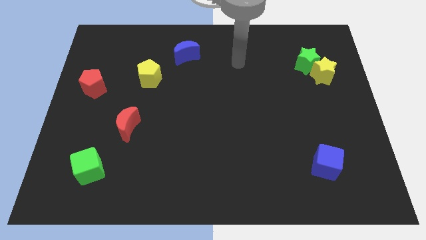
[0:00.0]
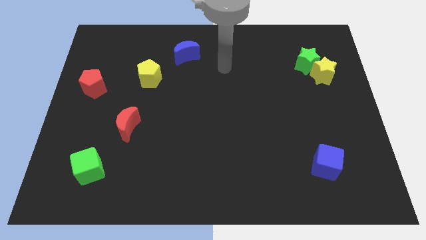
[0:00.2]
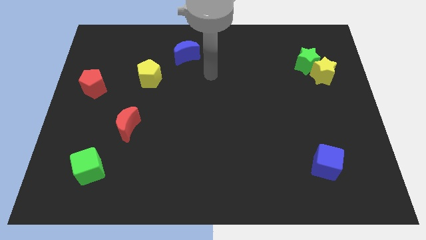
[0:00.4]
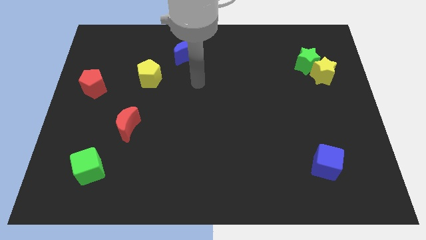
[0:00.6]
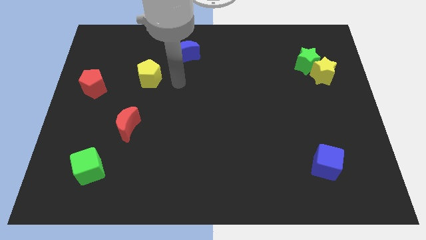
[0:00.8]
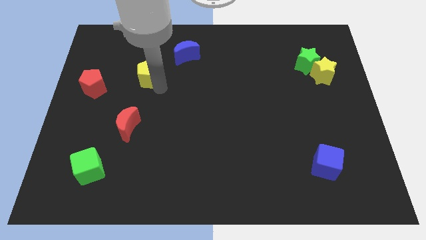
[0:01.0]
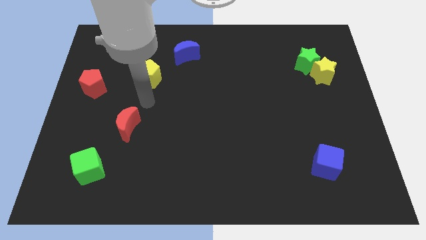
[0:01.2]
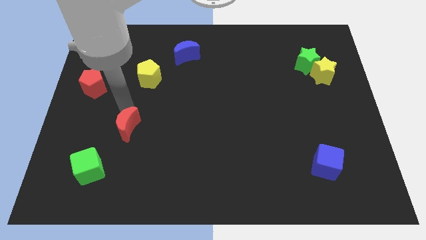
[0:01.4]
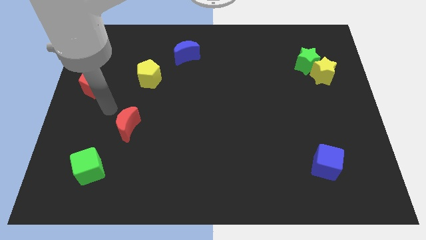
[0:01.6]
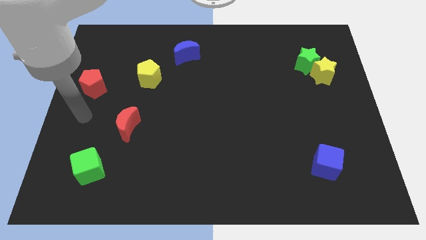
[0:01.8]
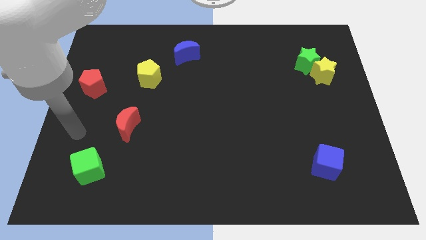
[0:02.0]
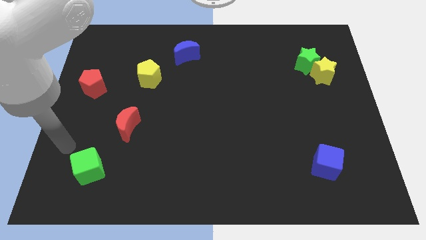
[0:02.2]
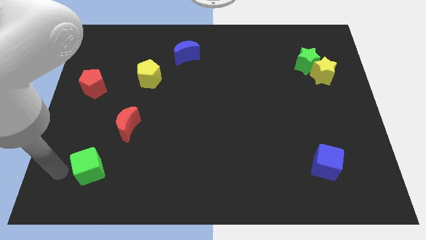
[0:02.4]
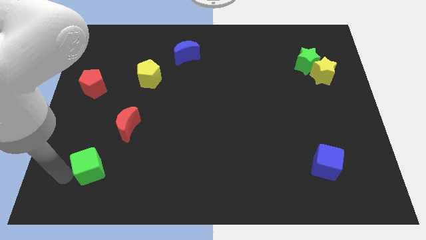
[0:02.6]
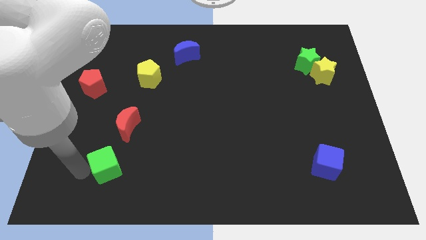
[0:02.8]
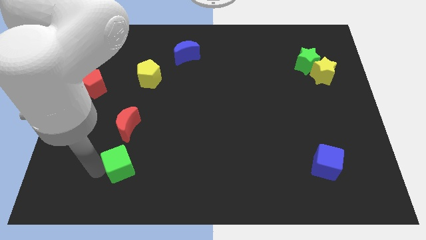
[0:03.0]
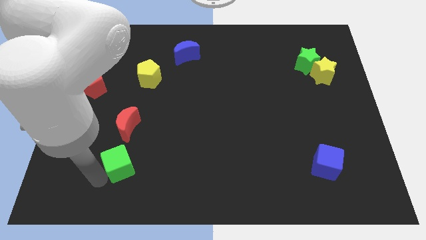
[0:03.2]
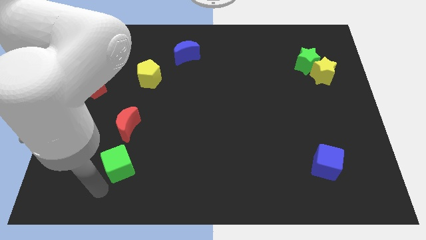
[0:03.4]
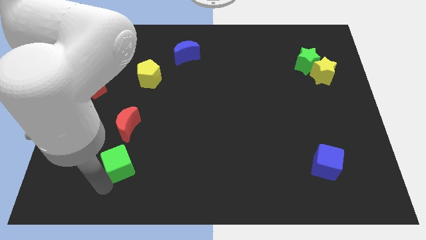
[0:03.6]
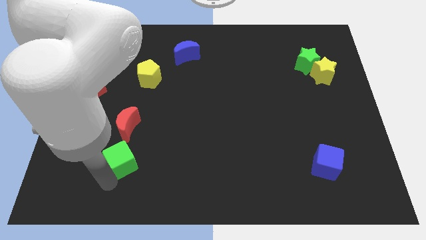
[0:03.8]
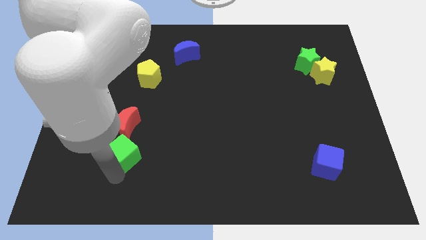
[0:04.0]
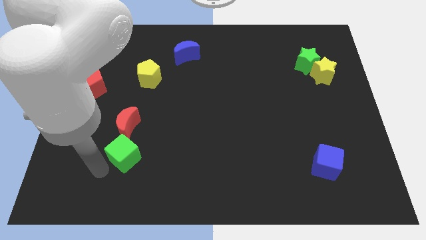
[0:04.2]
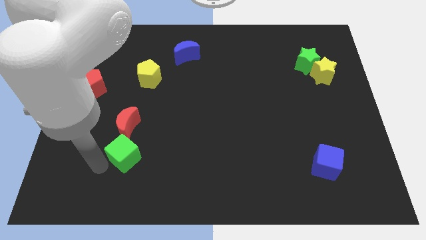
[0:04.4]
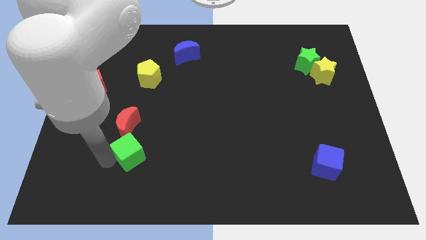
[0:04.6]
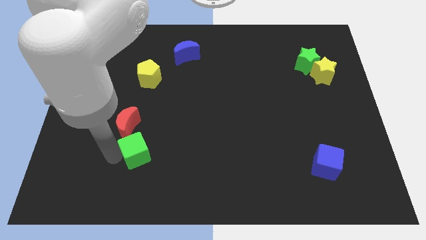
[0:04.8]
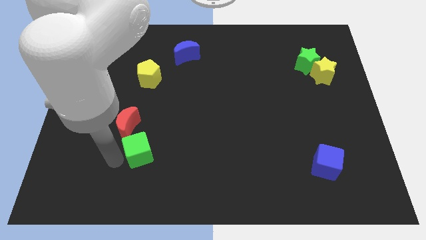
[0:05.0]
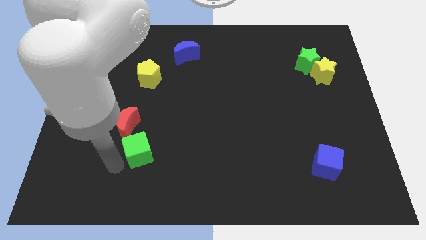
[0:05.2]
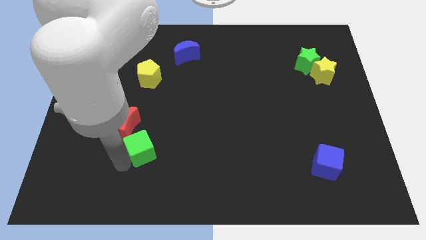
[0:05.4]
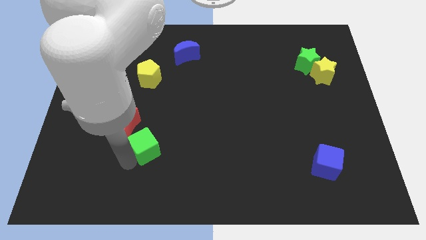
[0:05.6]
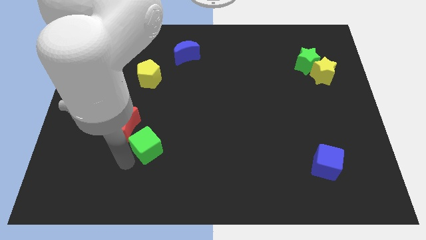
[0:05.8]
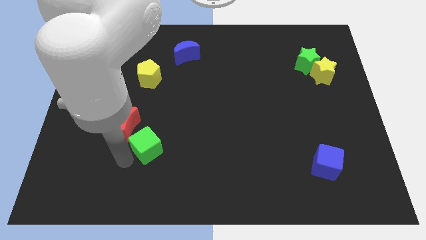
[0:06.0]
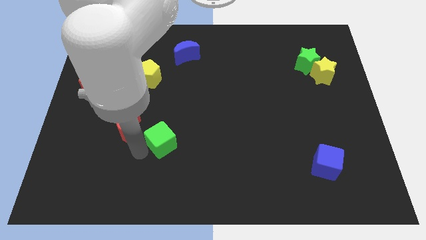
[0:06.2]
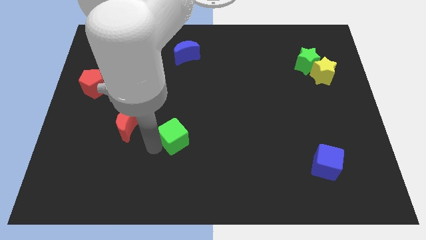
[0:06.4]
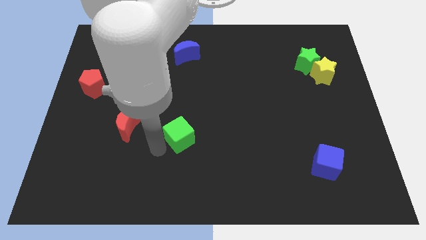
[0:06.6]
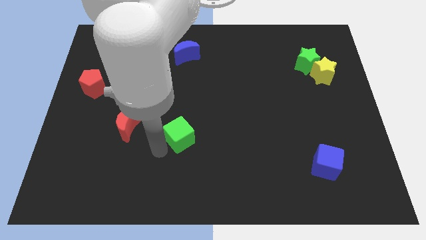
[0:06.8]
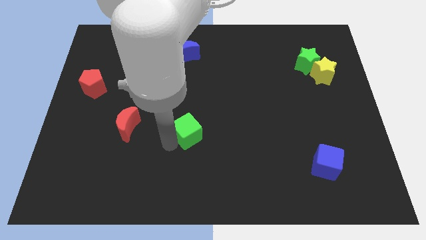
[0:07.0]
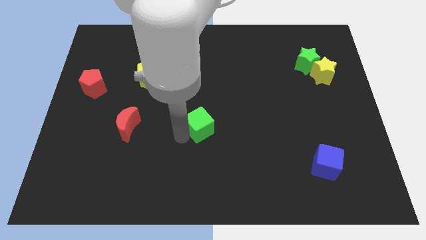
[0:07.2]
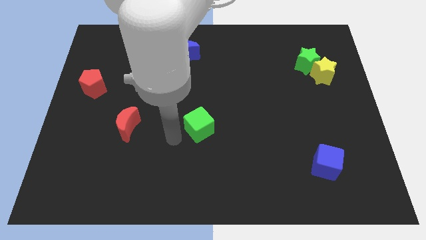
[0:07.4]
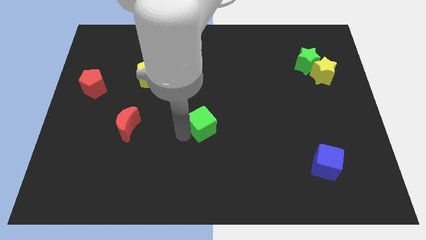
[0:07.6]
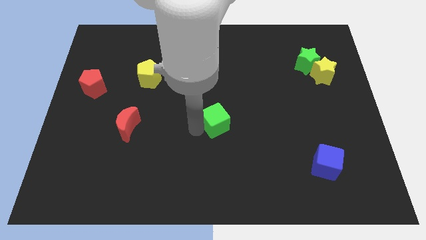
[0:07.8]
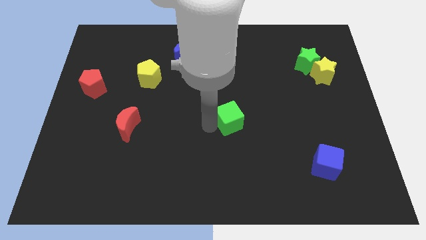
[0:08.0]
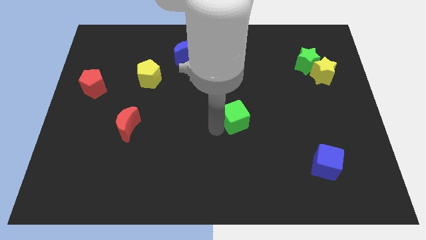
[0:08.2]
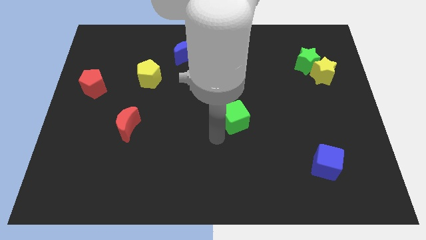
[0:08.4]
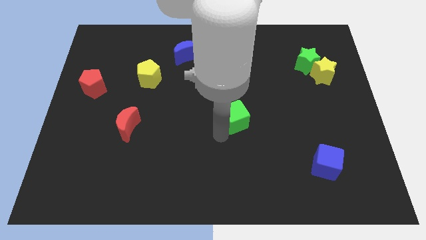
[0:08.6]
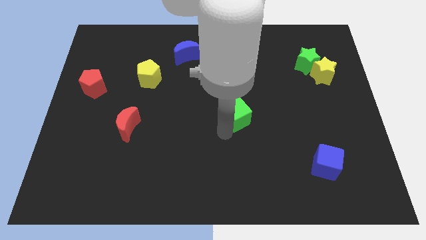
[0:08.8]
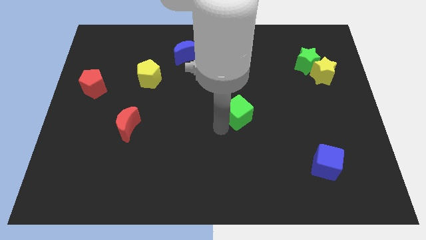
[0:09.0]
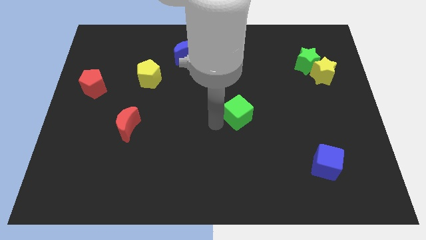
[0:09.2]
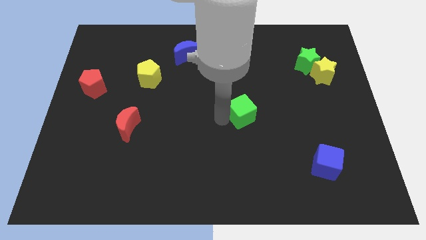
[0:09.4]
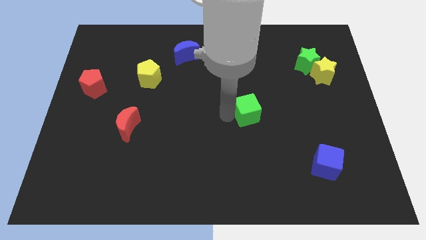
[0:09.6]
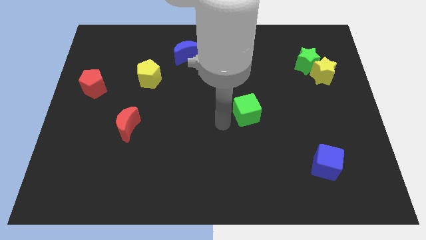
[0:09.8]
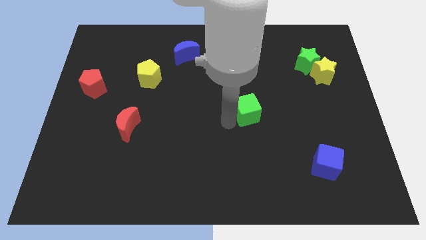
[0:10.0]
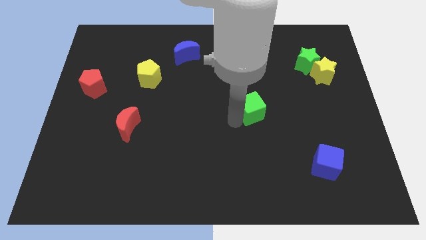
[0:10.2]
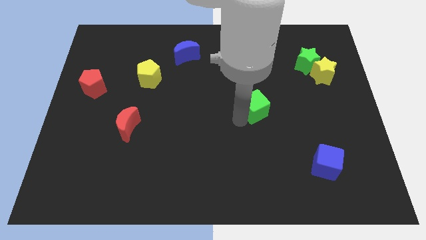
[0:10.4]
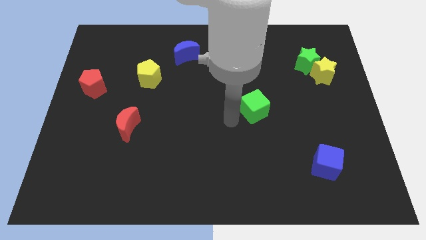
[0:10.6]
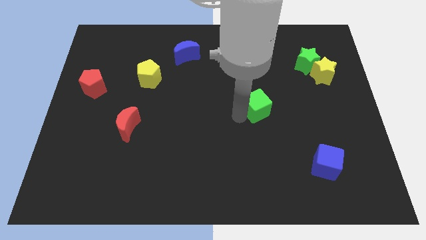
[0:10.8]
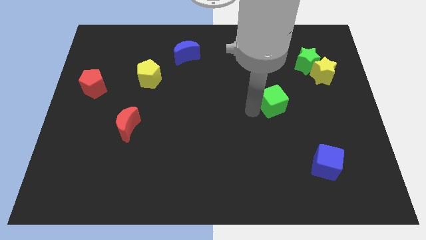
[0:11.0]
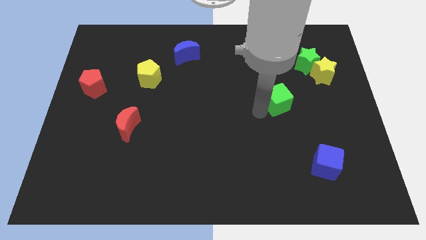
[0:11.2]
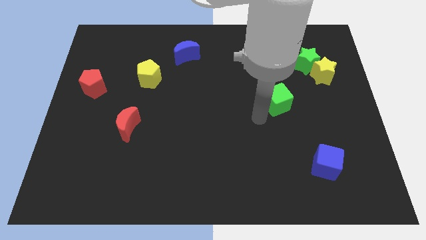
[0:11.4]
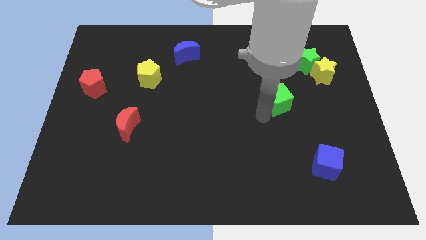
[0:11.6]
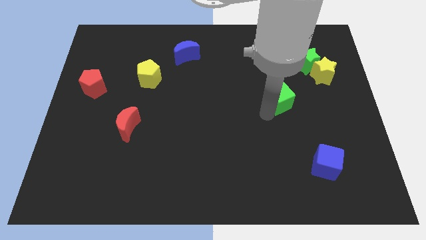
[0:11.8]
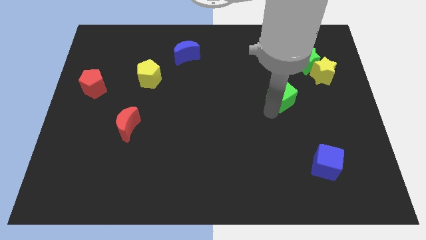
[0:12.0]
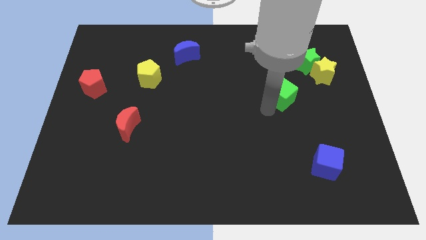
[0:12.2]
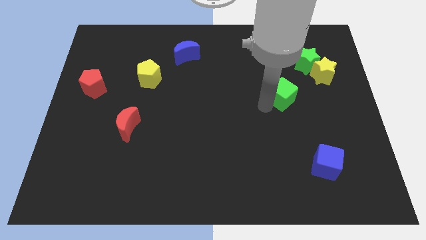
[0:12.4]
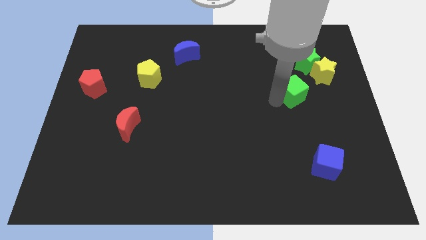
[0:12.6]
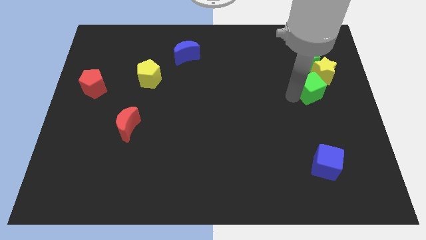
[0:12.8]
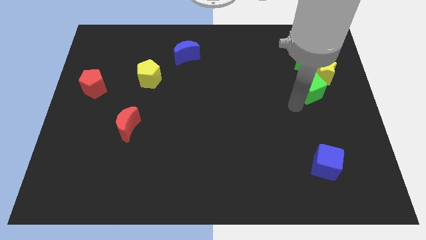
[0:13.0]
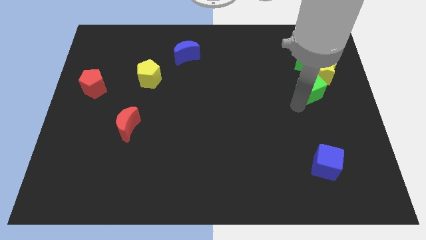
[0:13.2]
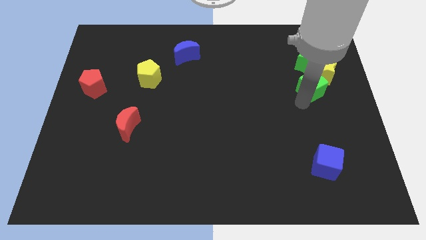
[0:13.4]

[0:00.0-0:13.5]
move the green cube next to the yellow star

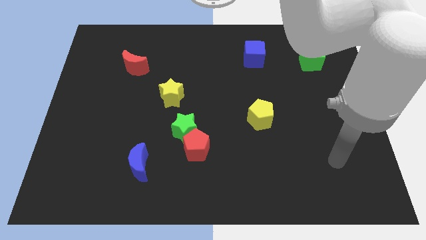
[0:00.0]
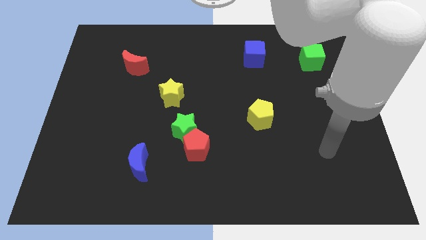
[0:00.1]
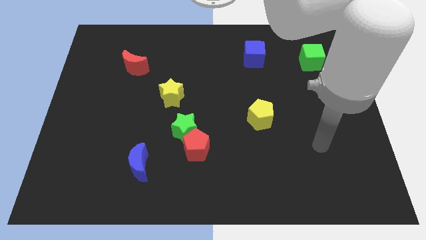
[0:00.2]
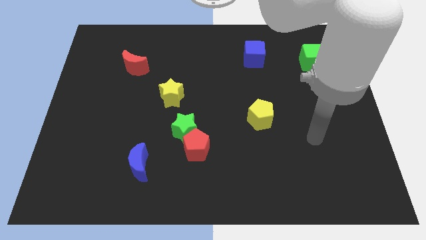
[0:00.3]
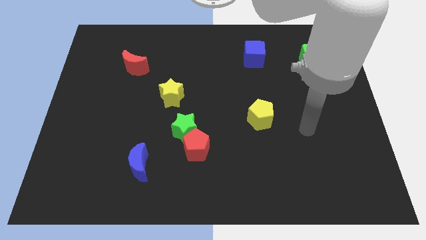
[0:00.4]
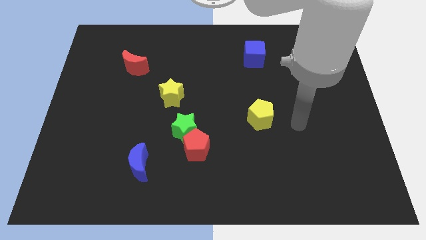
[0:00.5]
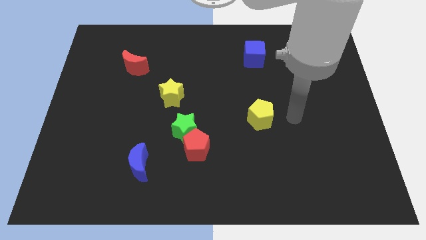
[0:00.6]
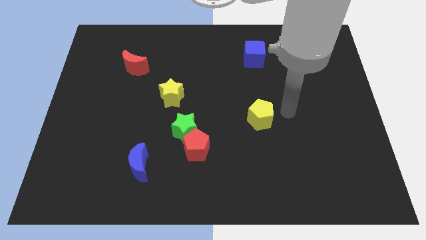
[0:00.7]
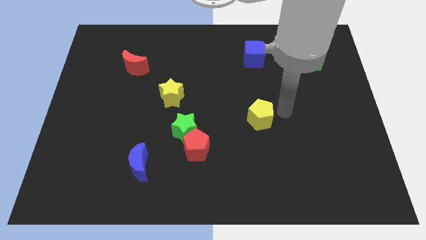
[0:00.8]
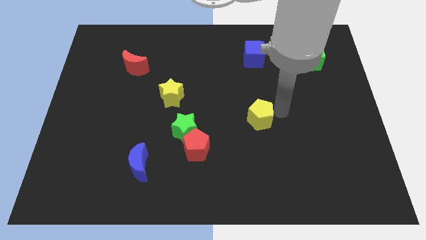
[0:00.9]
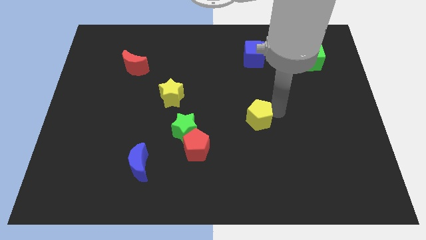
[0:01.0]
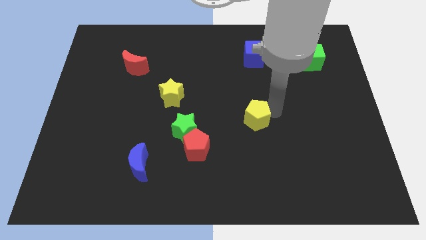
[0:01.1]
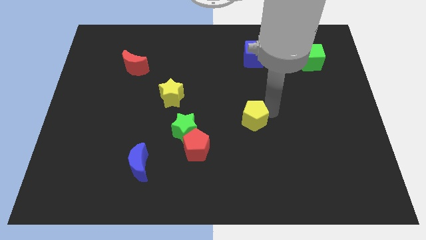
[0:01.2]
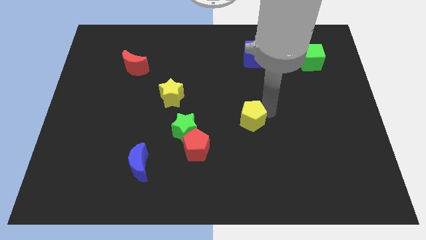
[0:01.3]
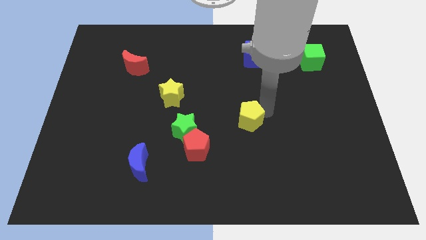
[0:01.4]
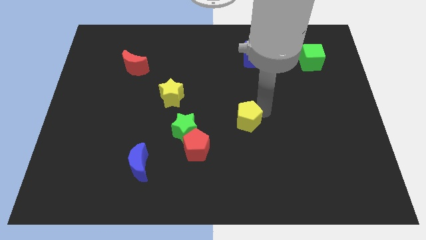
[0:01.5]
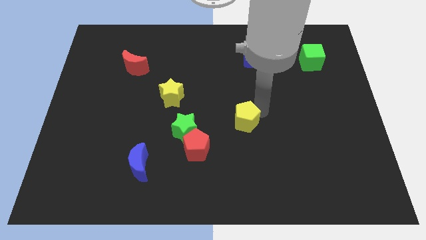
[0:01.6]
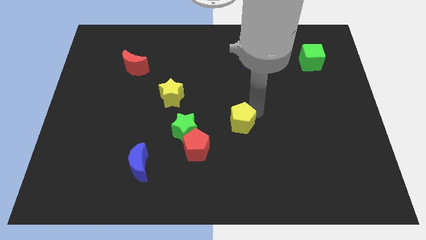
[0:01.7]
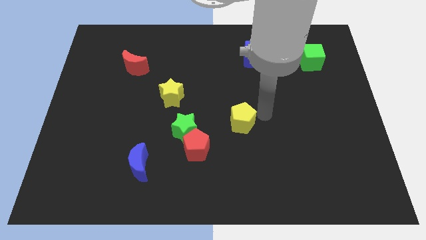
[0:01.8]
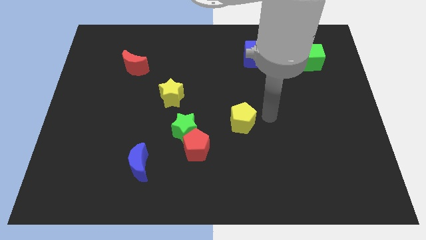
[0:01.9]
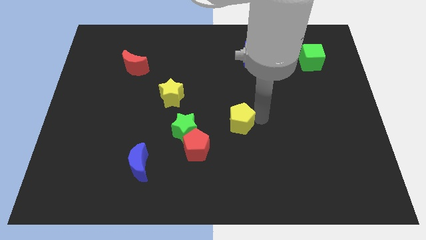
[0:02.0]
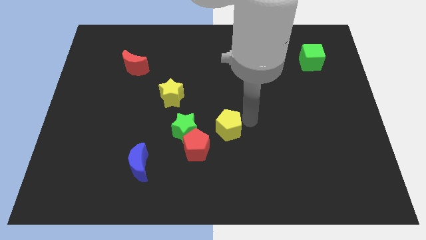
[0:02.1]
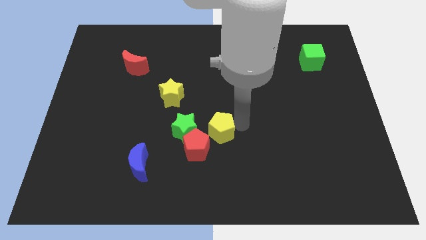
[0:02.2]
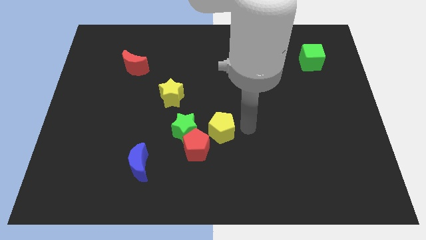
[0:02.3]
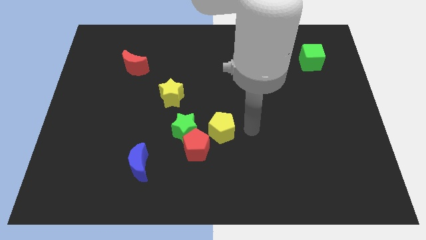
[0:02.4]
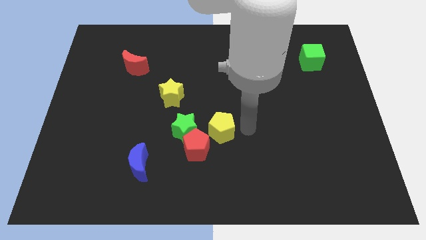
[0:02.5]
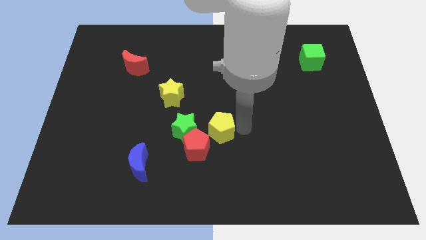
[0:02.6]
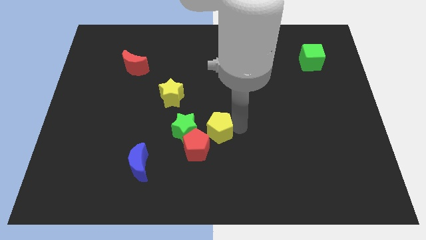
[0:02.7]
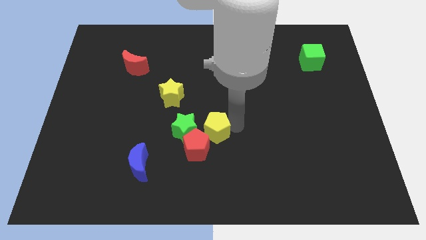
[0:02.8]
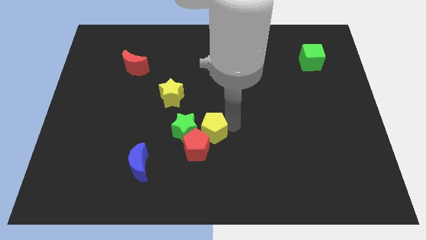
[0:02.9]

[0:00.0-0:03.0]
slide the yellow pentagon to the green star
